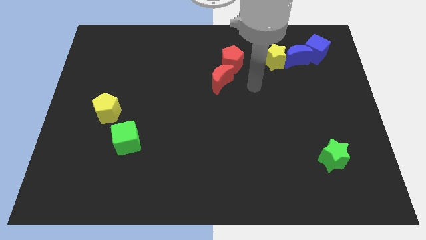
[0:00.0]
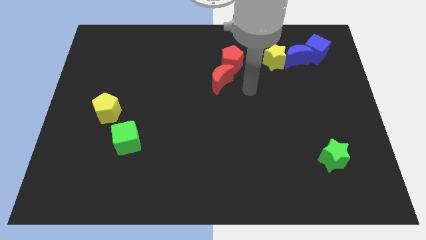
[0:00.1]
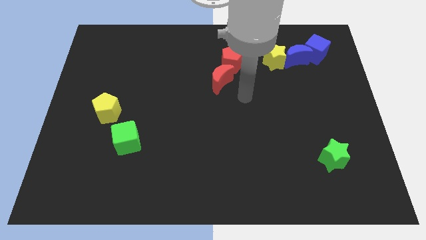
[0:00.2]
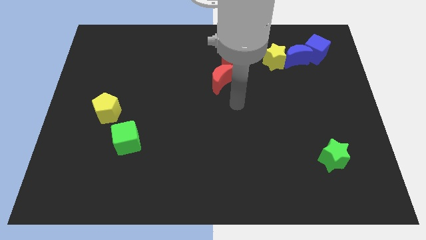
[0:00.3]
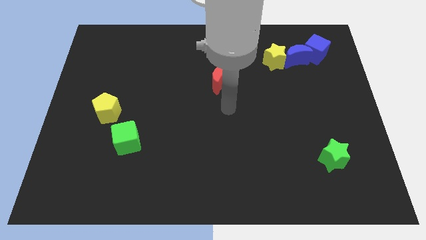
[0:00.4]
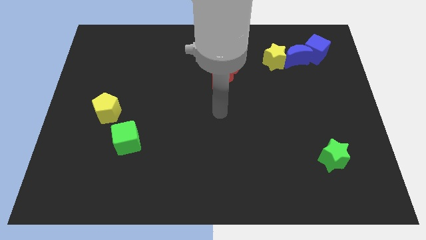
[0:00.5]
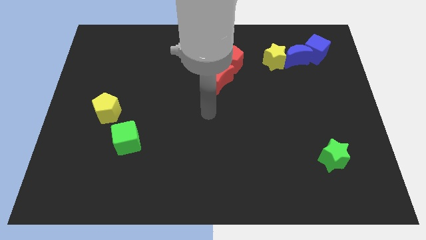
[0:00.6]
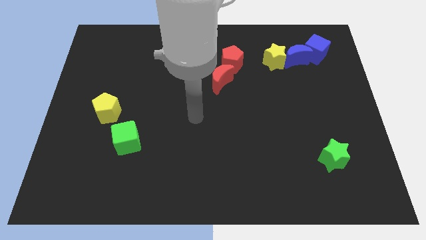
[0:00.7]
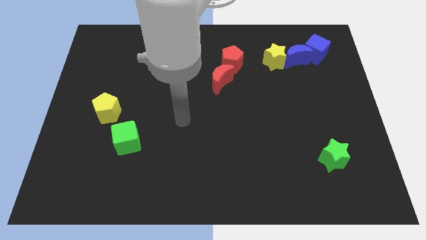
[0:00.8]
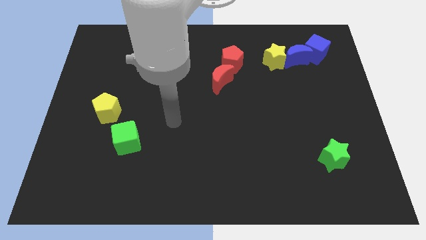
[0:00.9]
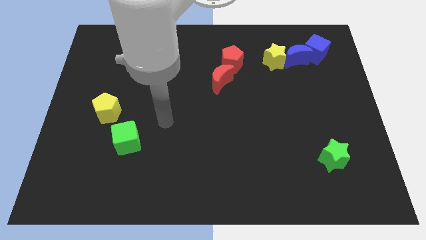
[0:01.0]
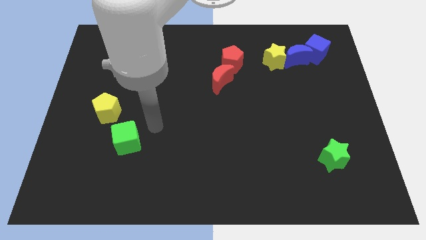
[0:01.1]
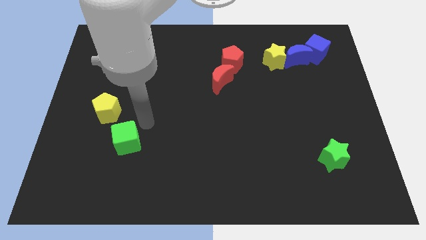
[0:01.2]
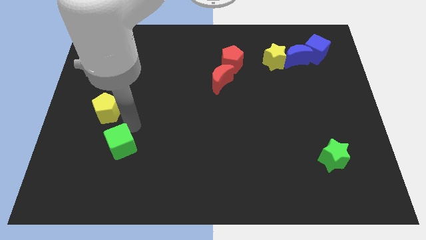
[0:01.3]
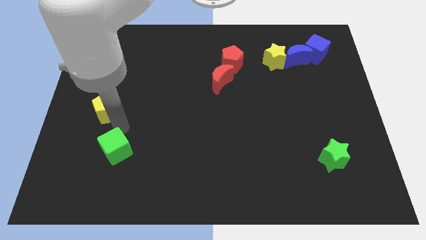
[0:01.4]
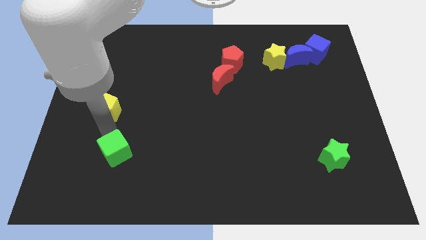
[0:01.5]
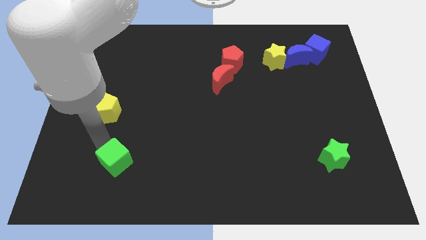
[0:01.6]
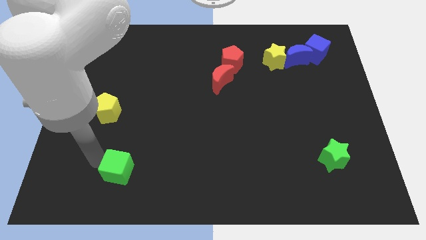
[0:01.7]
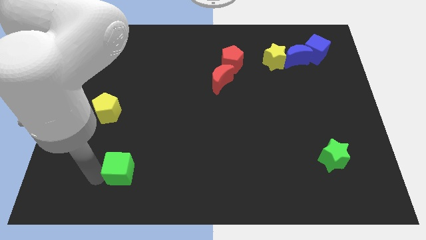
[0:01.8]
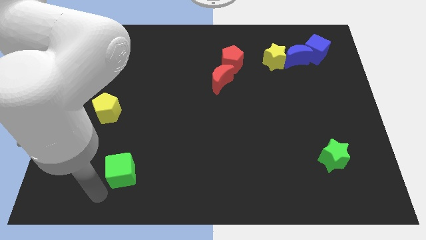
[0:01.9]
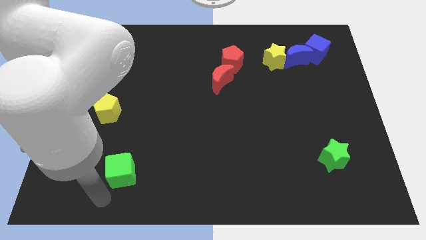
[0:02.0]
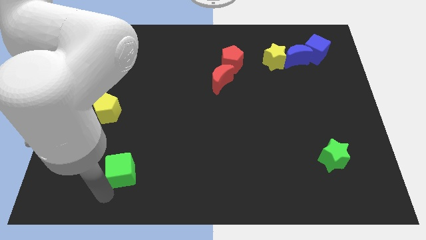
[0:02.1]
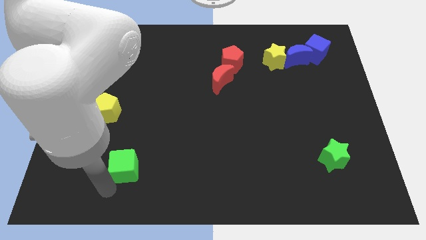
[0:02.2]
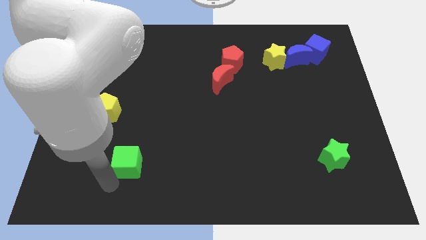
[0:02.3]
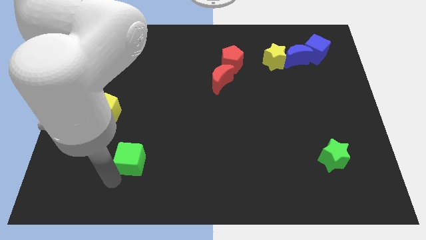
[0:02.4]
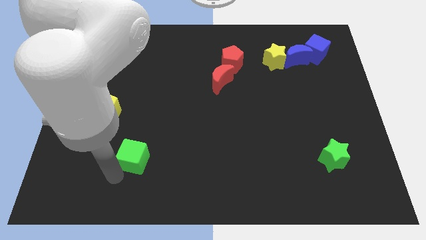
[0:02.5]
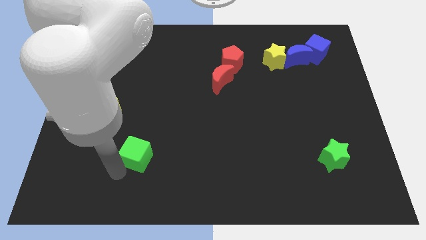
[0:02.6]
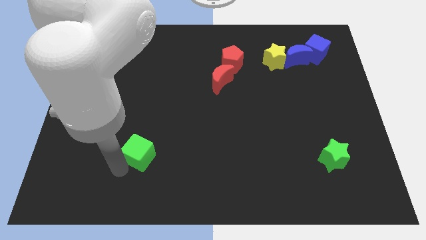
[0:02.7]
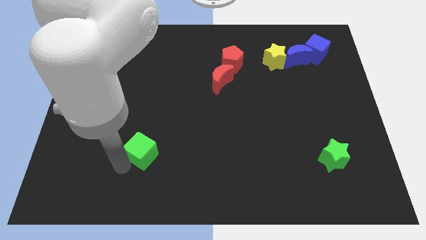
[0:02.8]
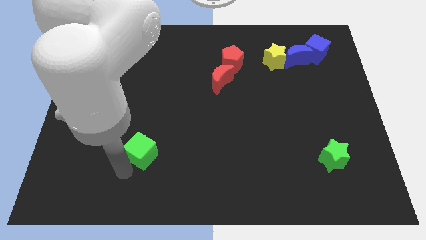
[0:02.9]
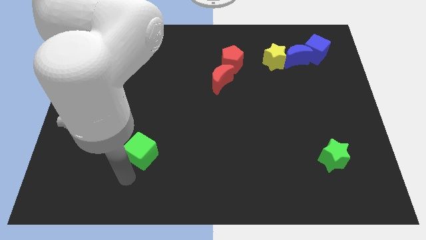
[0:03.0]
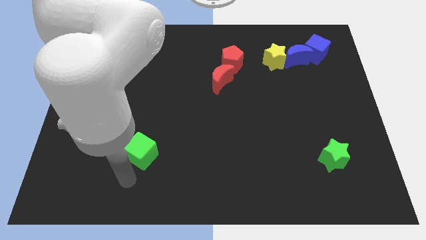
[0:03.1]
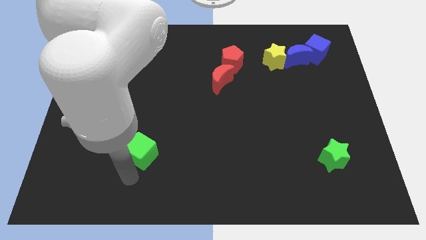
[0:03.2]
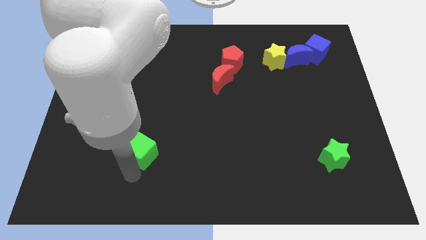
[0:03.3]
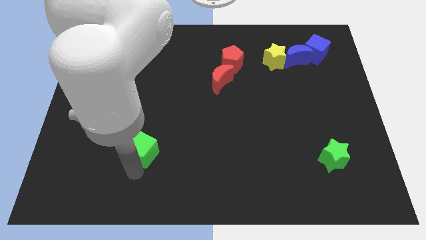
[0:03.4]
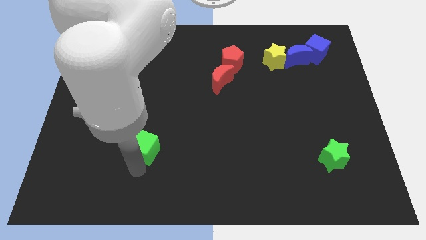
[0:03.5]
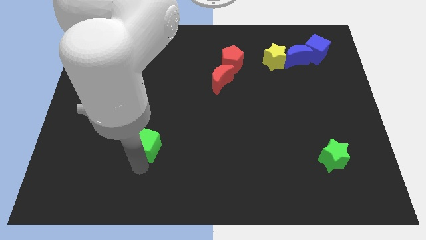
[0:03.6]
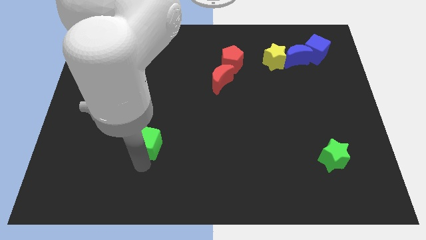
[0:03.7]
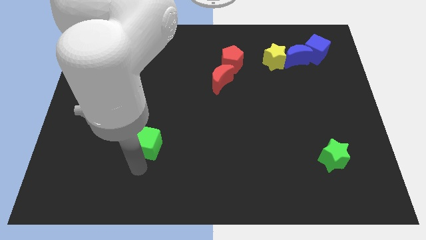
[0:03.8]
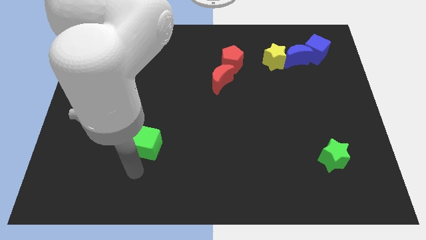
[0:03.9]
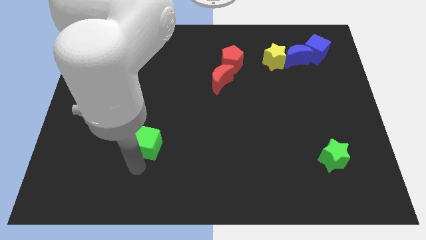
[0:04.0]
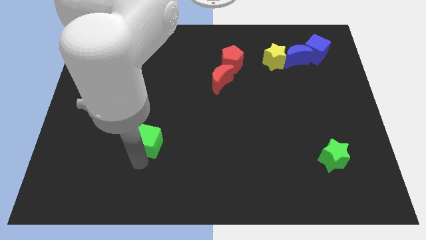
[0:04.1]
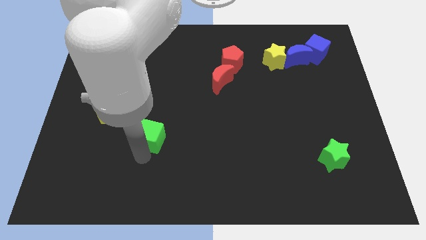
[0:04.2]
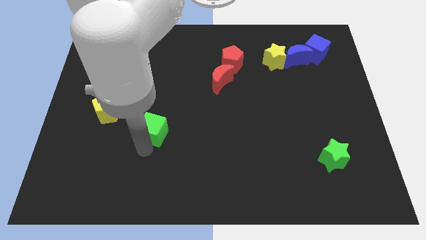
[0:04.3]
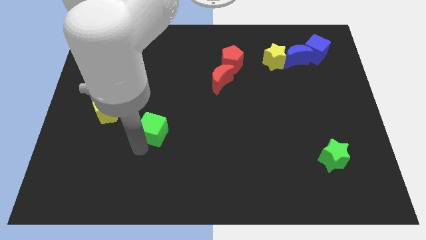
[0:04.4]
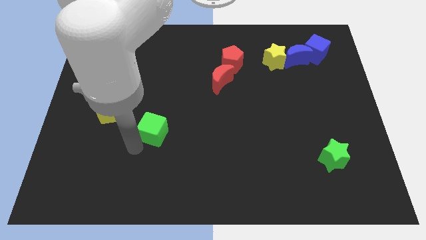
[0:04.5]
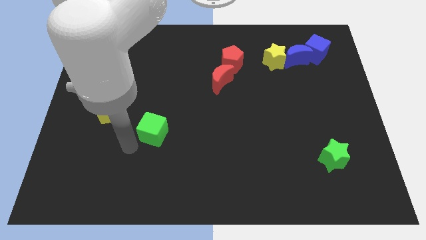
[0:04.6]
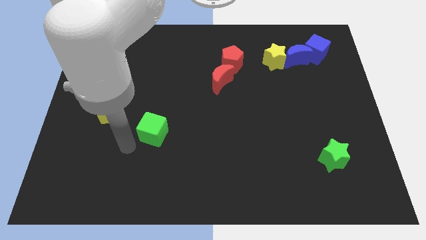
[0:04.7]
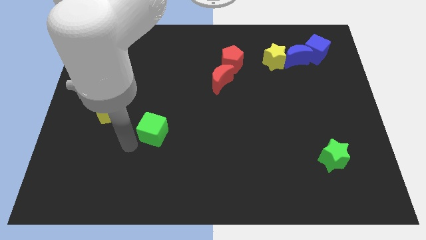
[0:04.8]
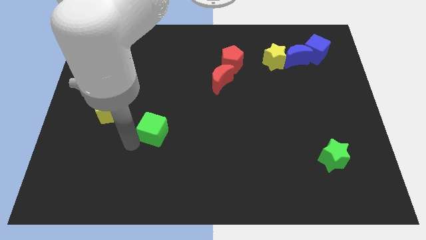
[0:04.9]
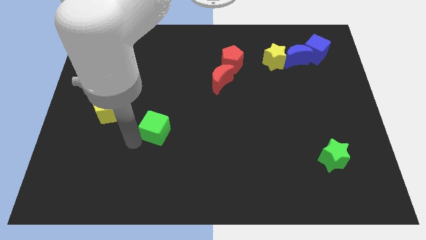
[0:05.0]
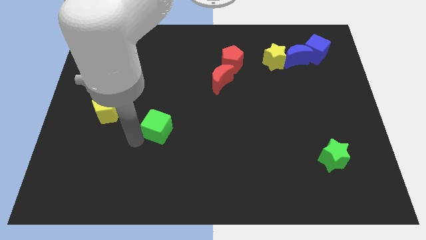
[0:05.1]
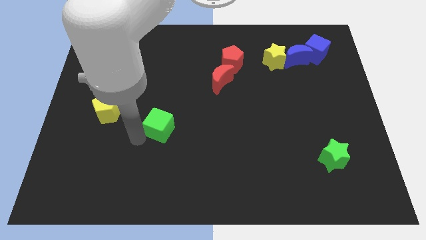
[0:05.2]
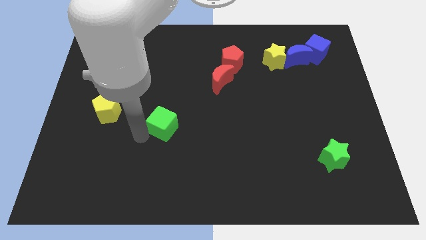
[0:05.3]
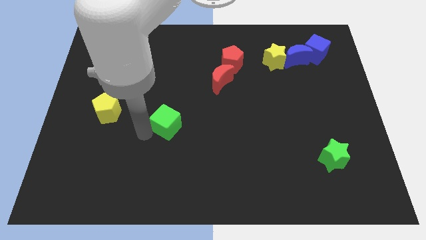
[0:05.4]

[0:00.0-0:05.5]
move the green cube to the center

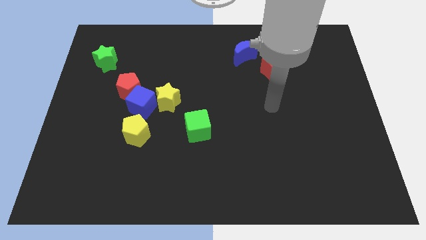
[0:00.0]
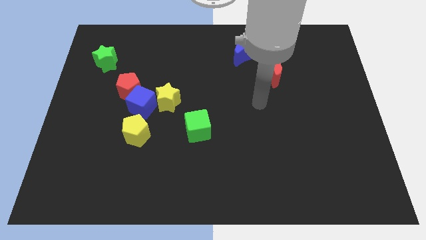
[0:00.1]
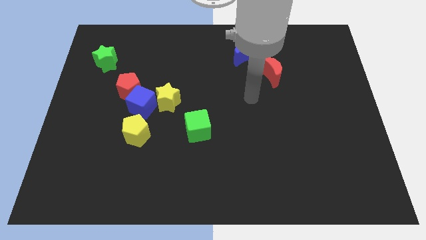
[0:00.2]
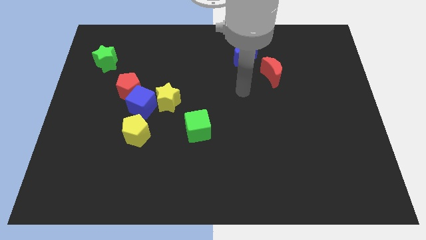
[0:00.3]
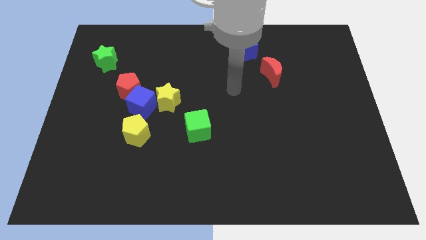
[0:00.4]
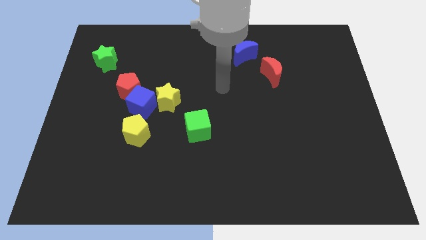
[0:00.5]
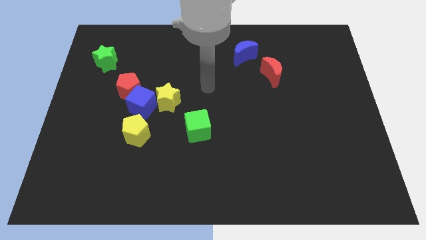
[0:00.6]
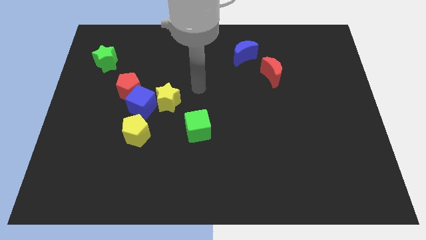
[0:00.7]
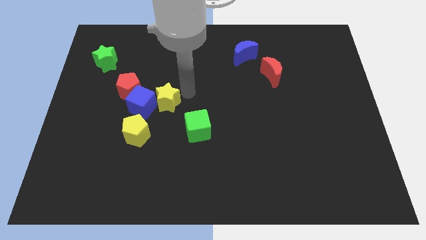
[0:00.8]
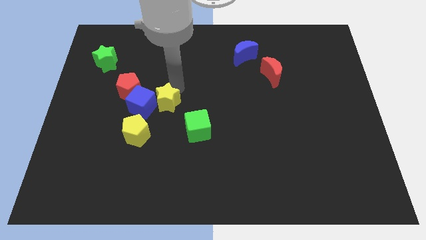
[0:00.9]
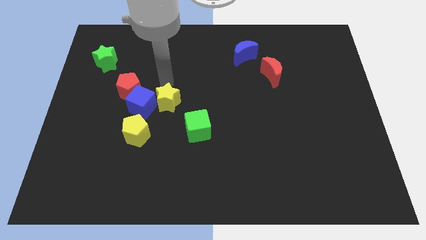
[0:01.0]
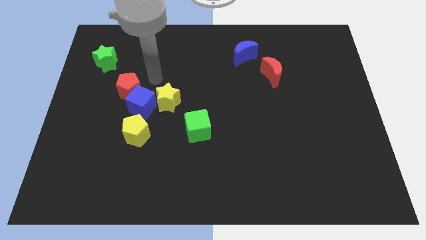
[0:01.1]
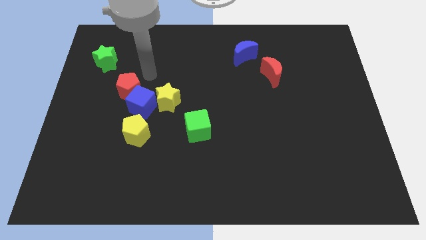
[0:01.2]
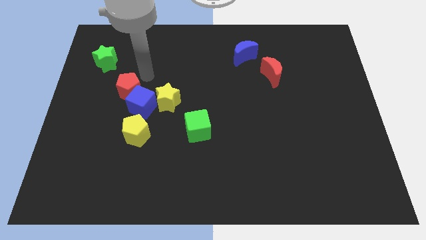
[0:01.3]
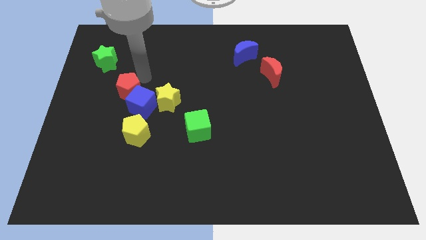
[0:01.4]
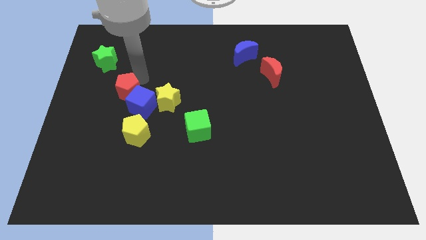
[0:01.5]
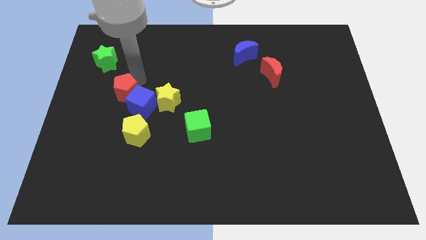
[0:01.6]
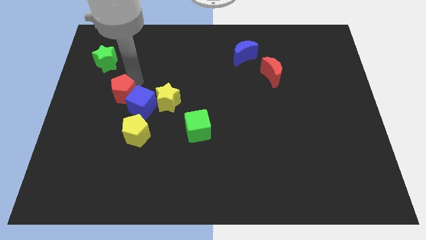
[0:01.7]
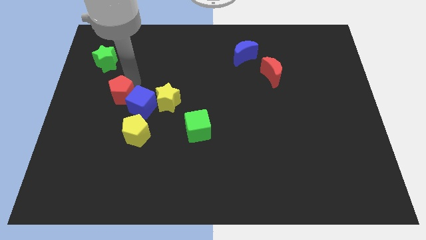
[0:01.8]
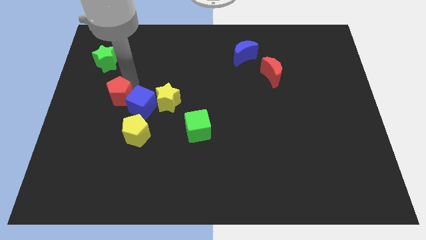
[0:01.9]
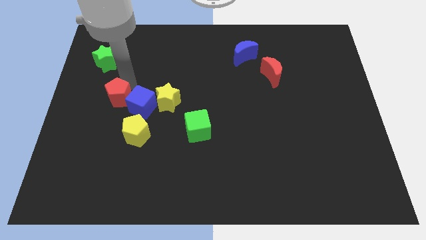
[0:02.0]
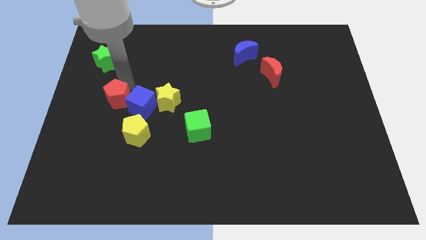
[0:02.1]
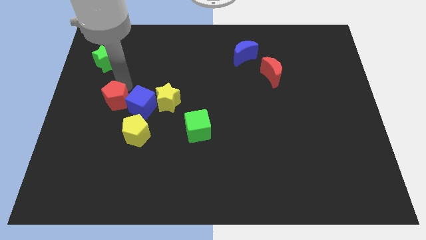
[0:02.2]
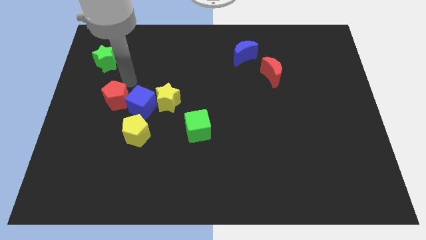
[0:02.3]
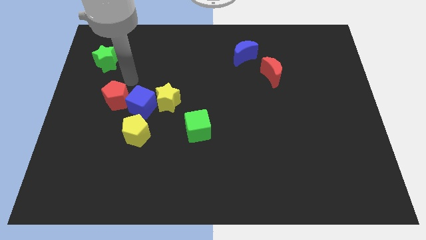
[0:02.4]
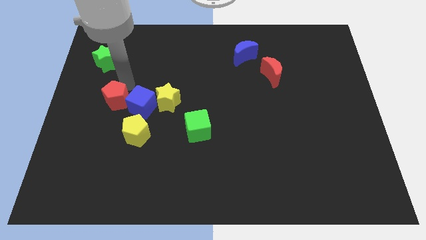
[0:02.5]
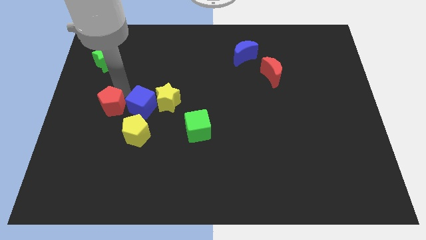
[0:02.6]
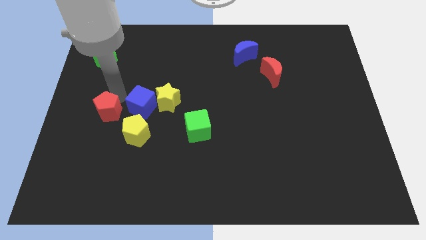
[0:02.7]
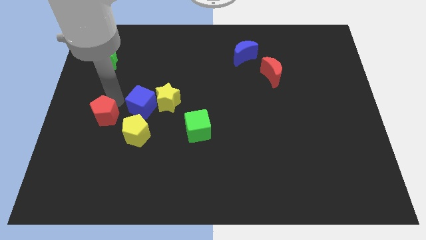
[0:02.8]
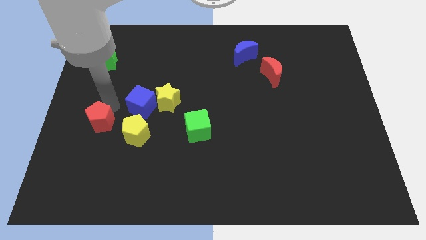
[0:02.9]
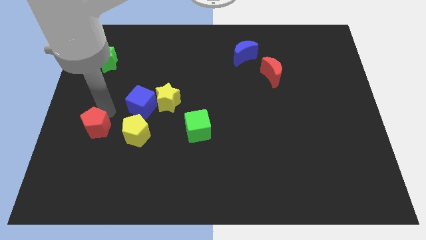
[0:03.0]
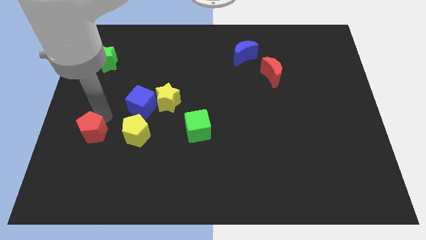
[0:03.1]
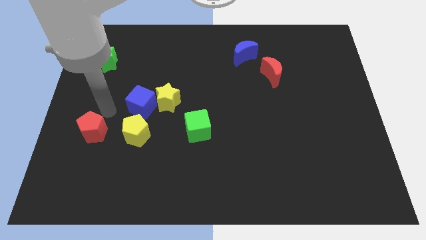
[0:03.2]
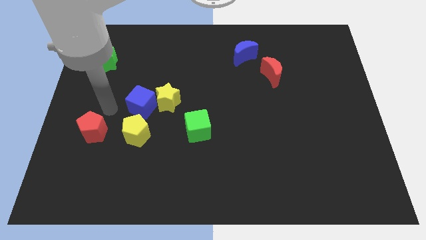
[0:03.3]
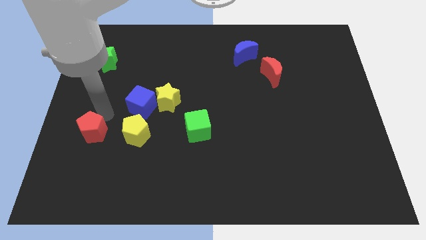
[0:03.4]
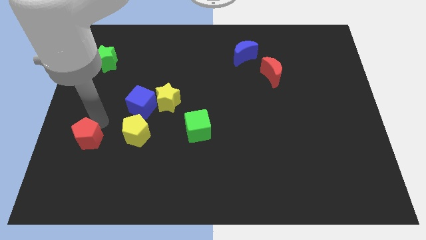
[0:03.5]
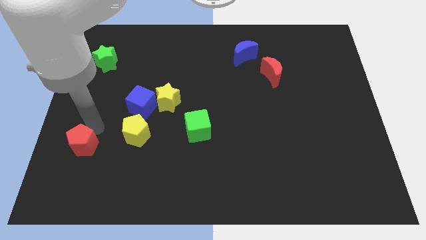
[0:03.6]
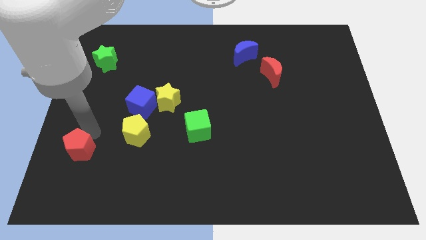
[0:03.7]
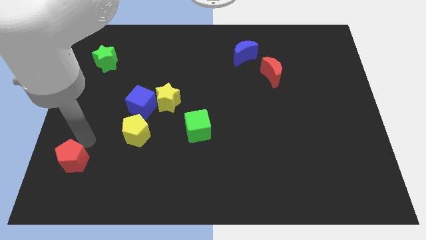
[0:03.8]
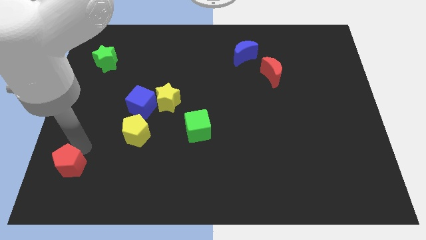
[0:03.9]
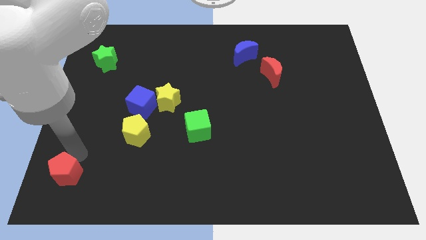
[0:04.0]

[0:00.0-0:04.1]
push the red pentagon to the bottom left of the board
